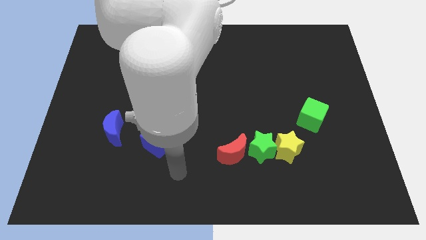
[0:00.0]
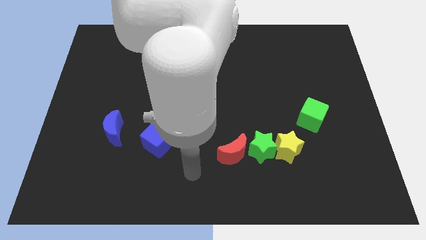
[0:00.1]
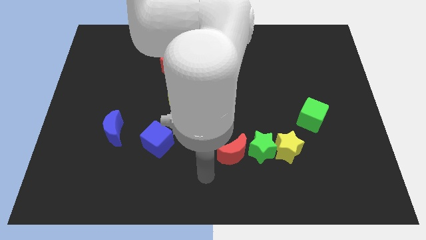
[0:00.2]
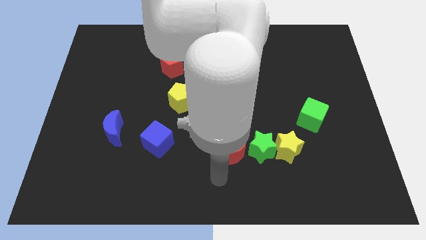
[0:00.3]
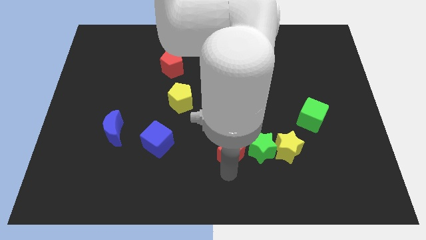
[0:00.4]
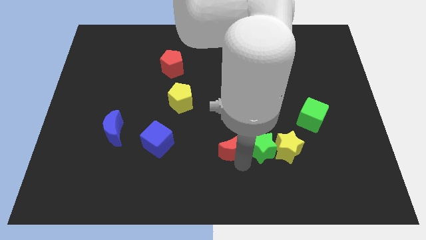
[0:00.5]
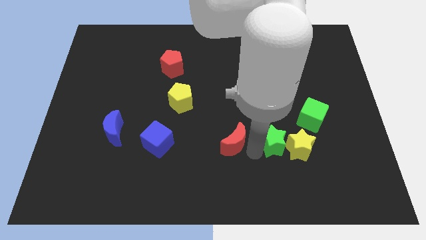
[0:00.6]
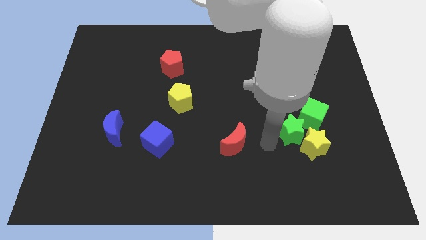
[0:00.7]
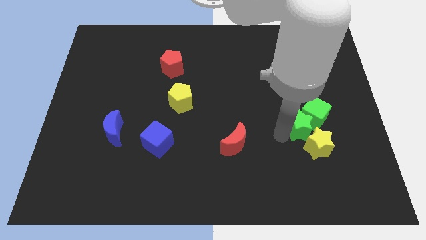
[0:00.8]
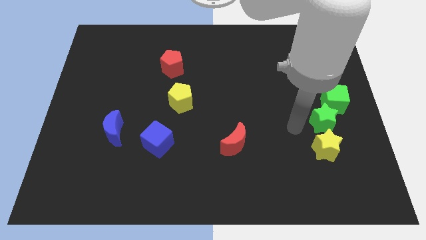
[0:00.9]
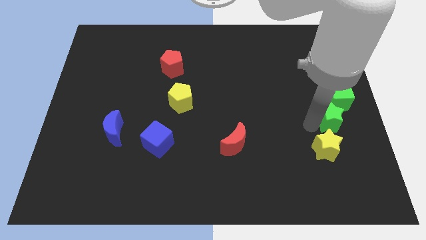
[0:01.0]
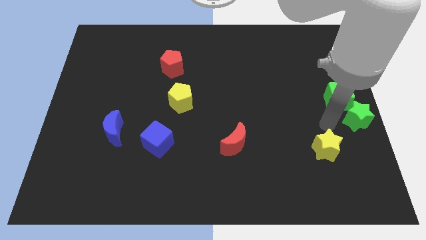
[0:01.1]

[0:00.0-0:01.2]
separate the yellow star from the green star

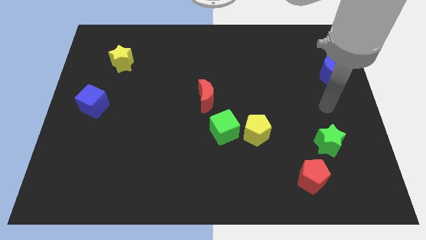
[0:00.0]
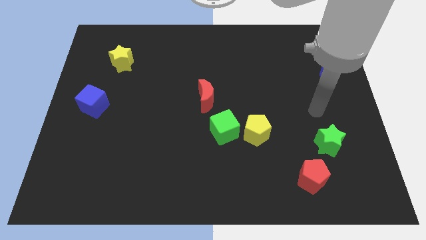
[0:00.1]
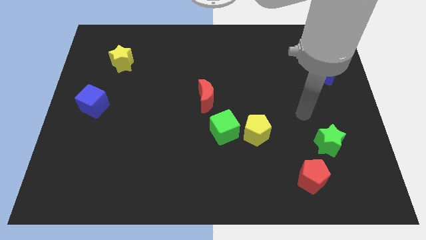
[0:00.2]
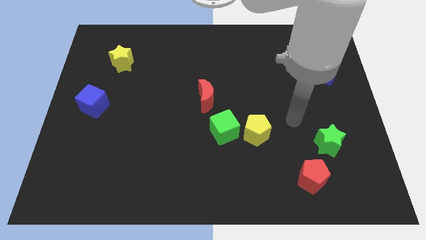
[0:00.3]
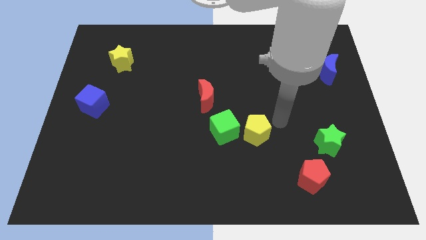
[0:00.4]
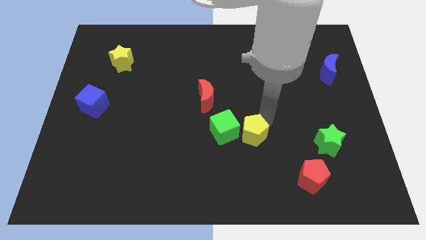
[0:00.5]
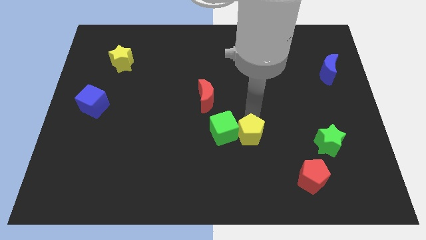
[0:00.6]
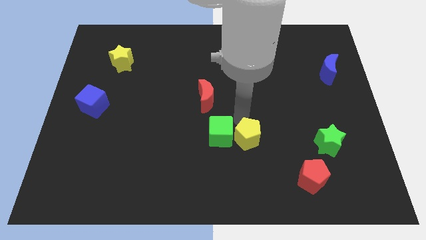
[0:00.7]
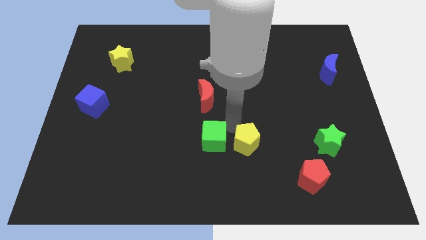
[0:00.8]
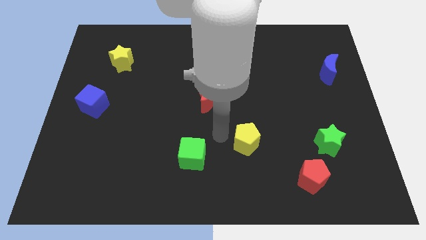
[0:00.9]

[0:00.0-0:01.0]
separate the yellow pentagon from the green cube

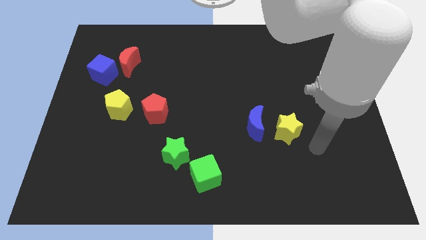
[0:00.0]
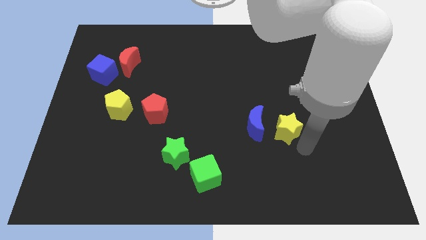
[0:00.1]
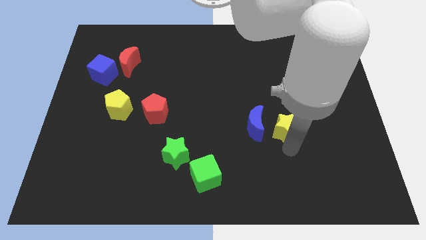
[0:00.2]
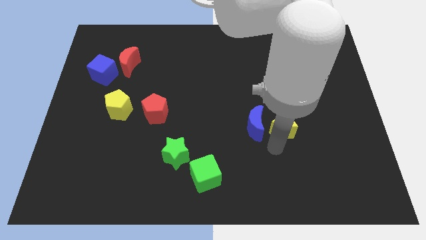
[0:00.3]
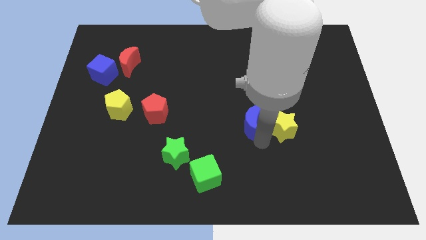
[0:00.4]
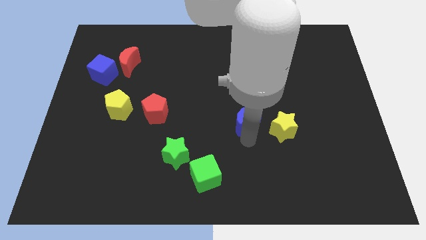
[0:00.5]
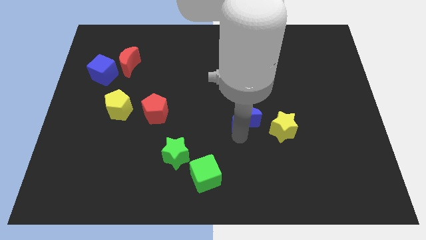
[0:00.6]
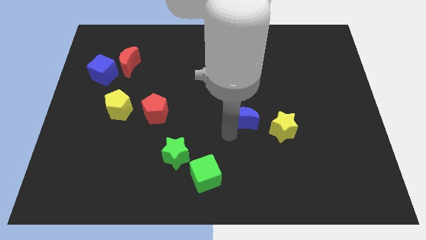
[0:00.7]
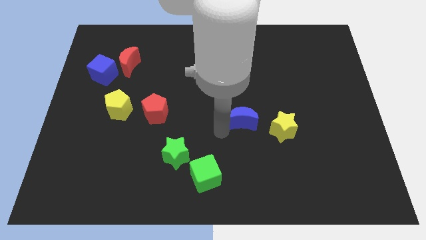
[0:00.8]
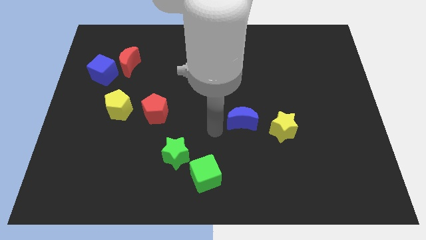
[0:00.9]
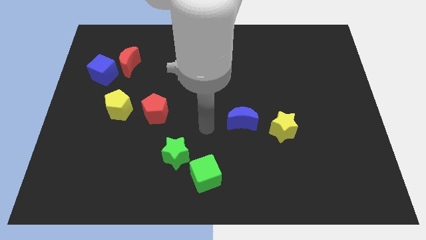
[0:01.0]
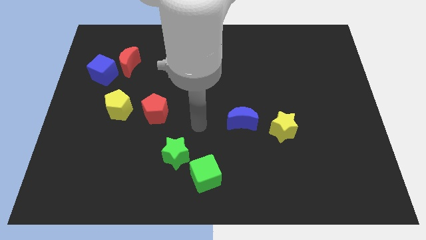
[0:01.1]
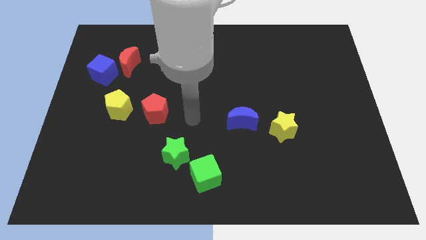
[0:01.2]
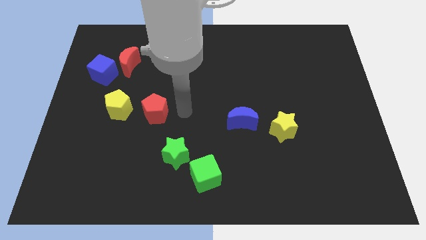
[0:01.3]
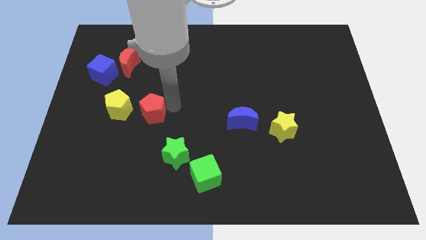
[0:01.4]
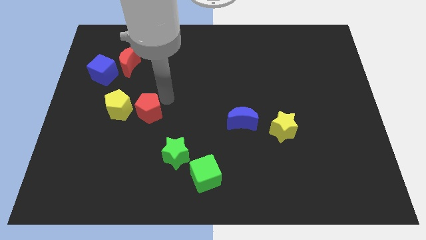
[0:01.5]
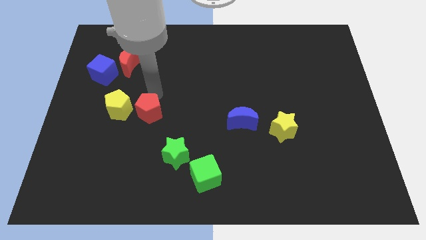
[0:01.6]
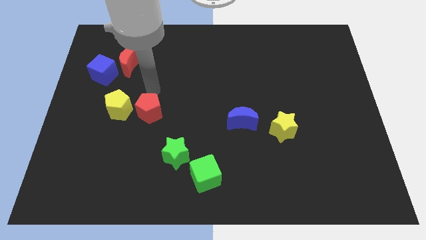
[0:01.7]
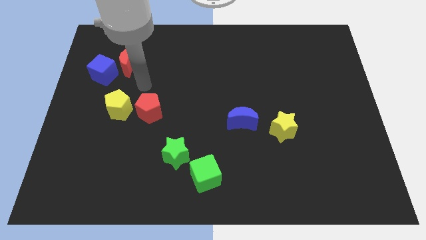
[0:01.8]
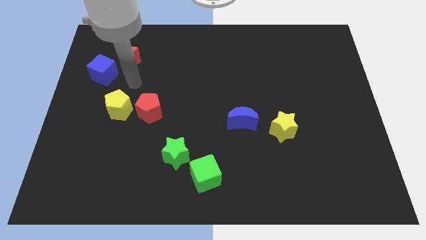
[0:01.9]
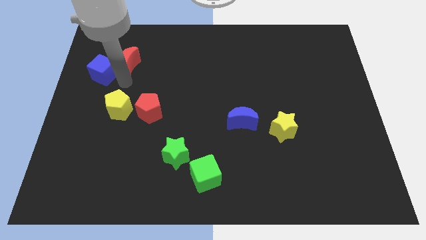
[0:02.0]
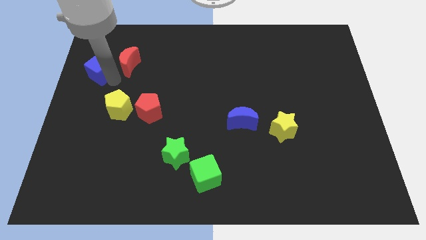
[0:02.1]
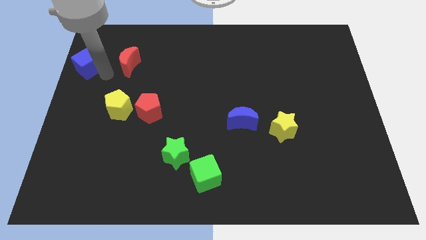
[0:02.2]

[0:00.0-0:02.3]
pull the red moon apart from the blue cube

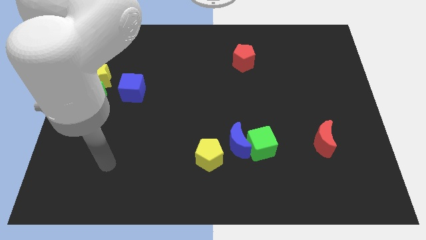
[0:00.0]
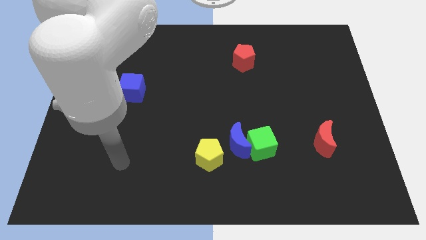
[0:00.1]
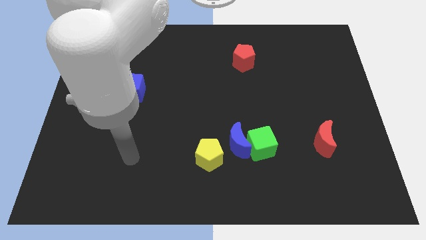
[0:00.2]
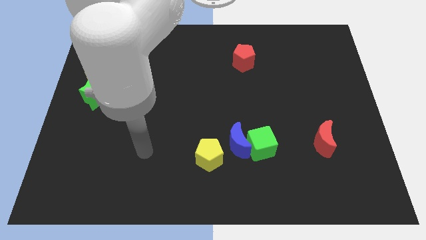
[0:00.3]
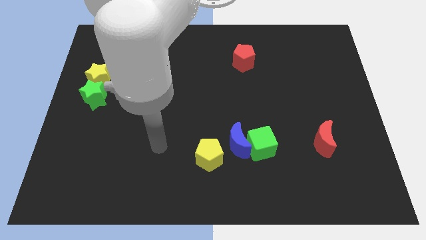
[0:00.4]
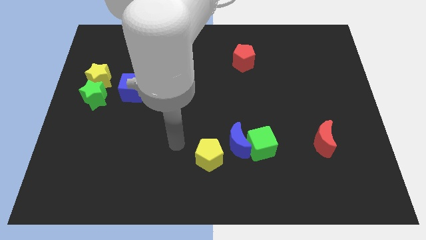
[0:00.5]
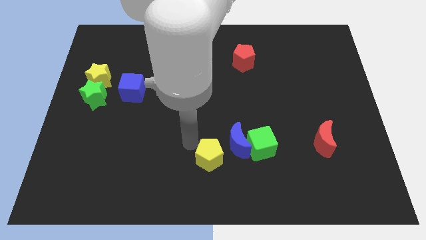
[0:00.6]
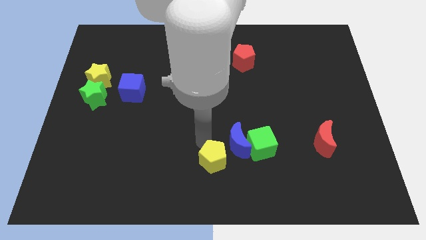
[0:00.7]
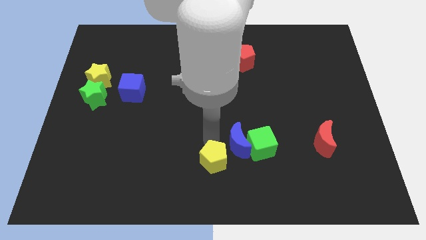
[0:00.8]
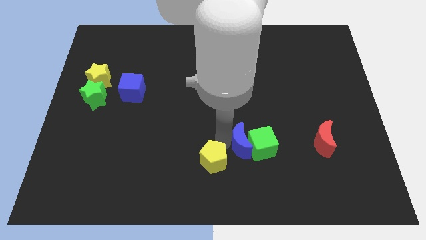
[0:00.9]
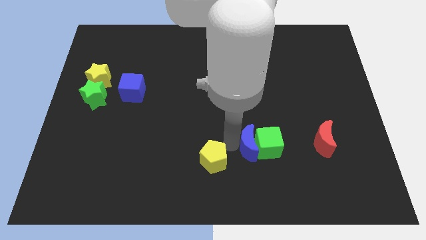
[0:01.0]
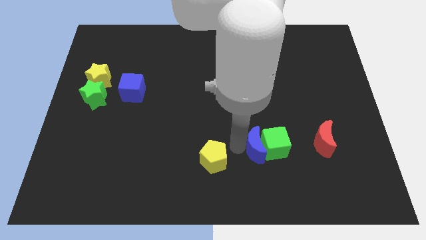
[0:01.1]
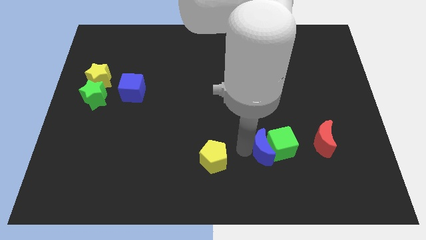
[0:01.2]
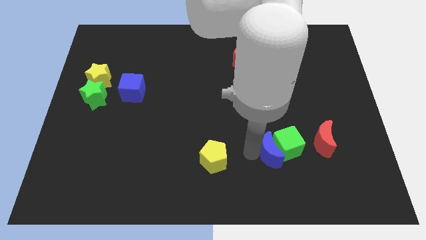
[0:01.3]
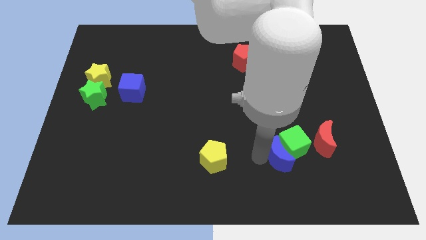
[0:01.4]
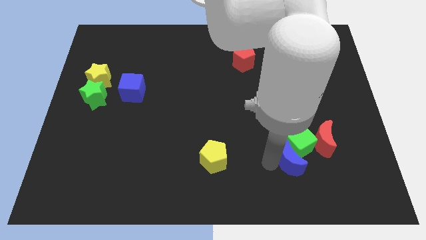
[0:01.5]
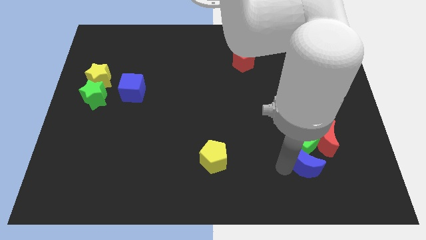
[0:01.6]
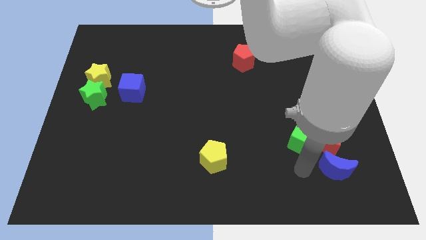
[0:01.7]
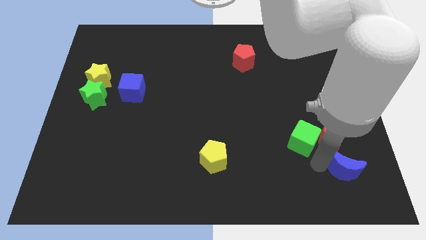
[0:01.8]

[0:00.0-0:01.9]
separate the green cube from the blue moon

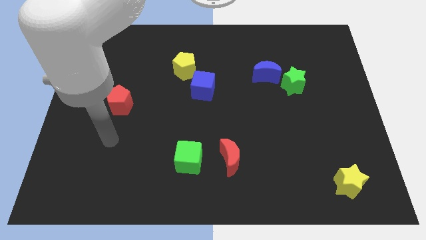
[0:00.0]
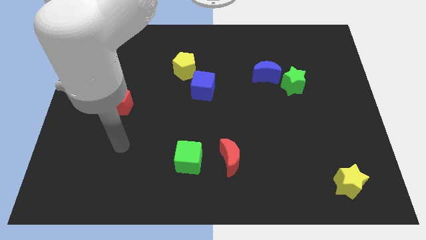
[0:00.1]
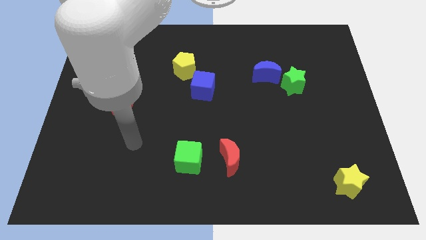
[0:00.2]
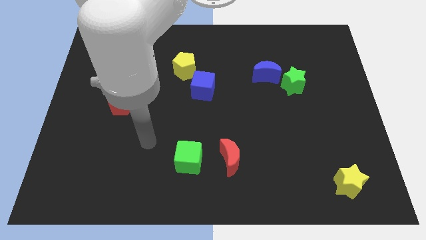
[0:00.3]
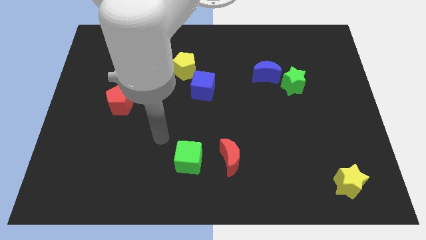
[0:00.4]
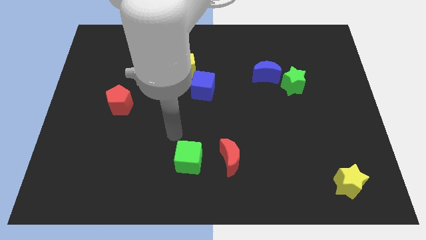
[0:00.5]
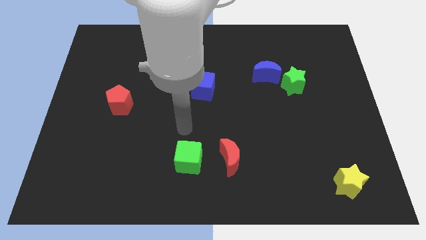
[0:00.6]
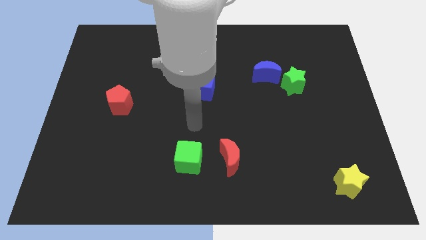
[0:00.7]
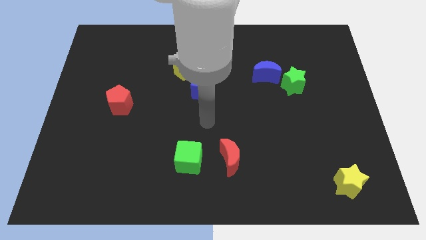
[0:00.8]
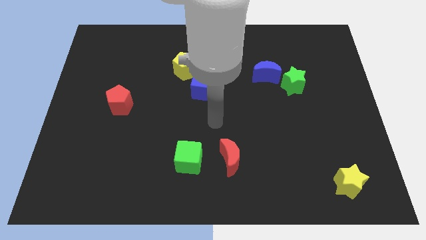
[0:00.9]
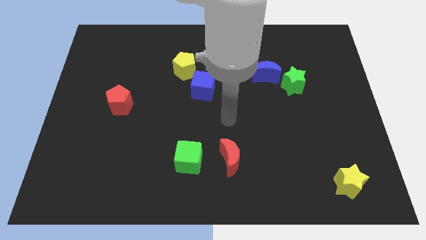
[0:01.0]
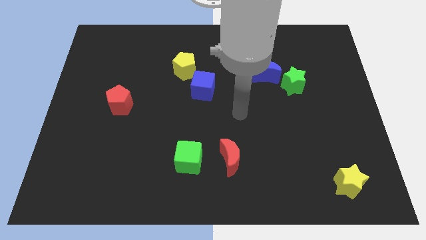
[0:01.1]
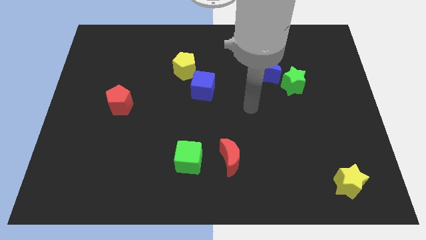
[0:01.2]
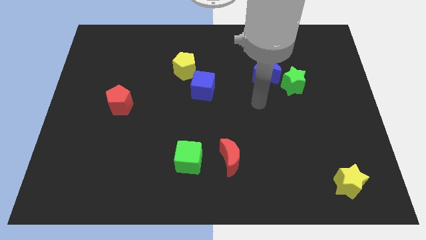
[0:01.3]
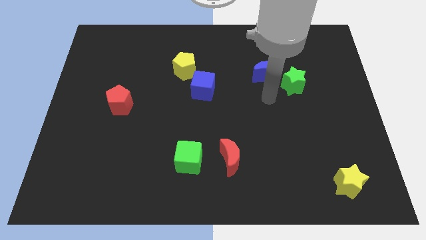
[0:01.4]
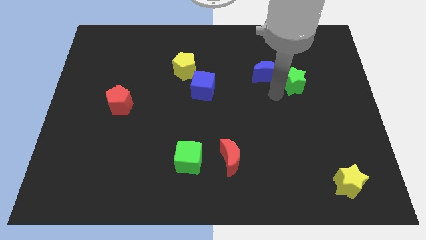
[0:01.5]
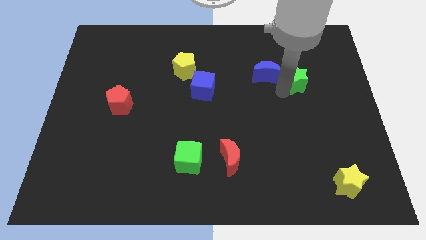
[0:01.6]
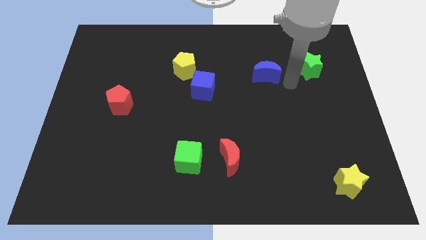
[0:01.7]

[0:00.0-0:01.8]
separate the blue moon from the green star

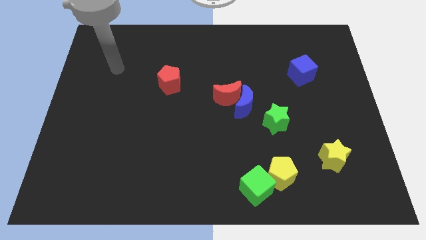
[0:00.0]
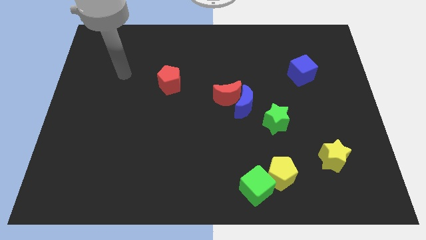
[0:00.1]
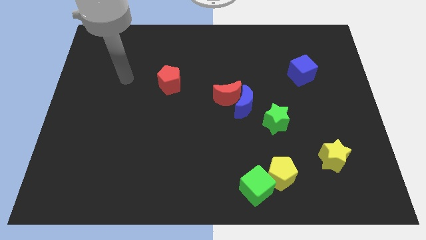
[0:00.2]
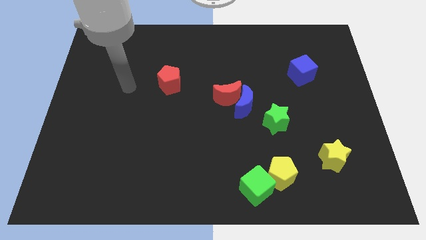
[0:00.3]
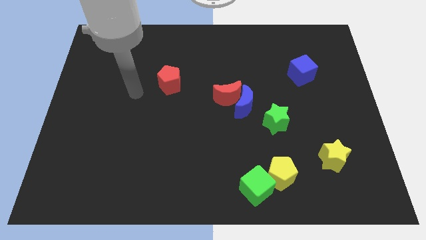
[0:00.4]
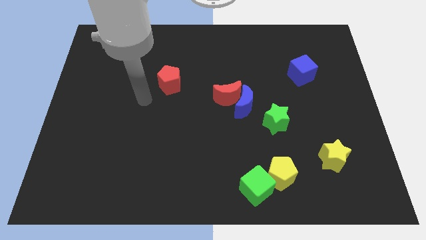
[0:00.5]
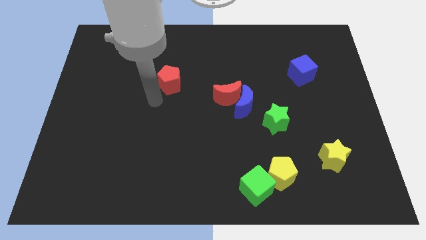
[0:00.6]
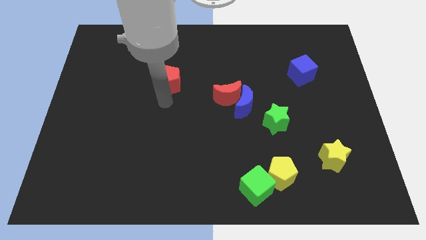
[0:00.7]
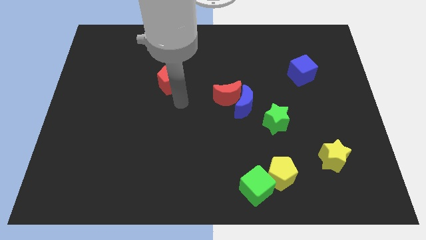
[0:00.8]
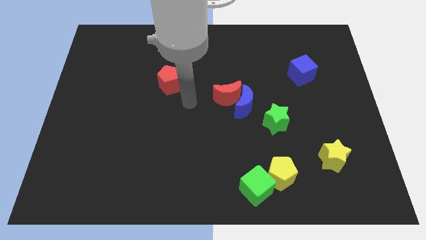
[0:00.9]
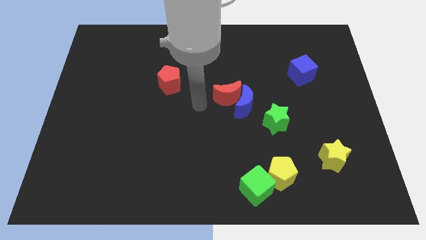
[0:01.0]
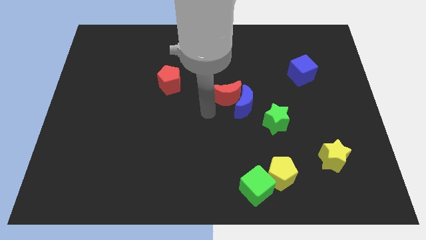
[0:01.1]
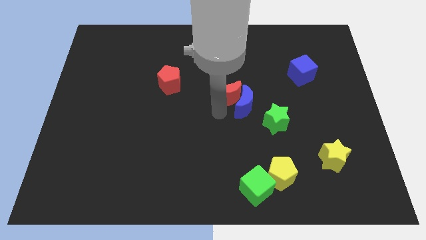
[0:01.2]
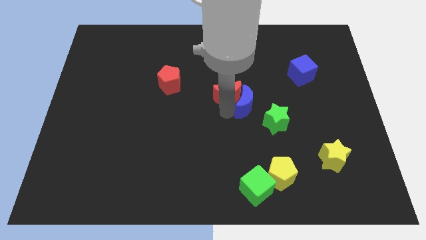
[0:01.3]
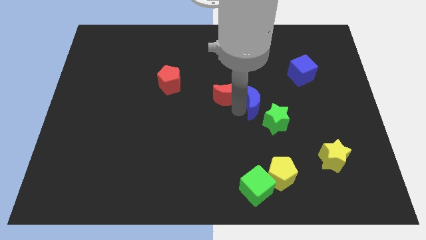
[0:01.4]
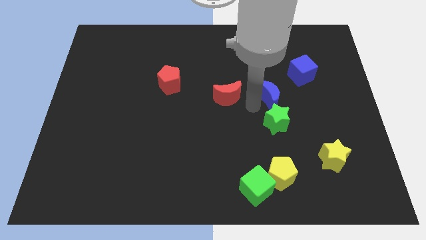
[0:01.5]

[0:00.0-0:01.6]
move the red moon away from the blue moon
